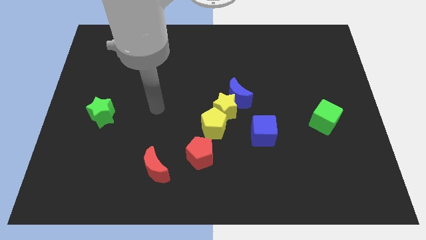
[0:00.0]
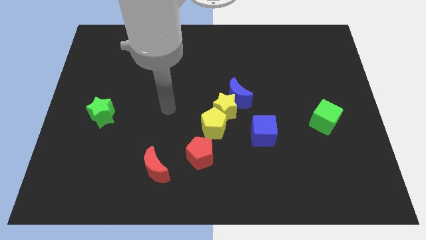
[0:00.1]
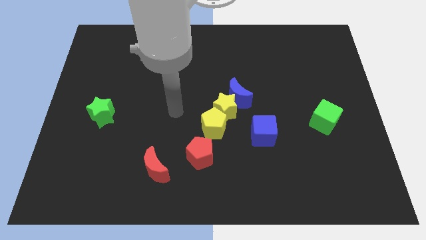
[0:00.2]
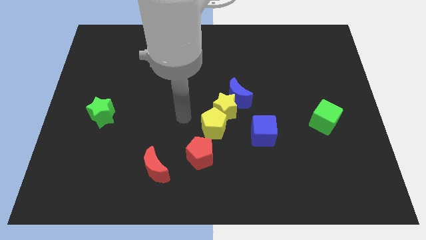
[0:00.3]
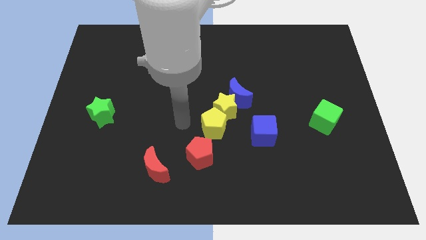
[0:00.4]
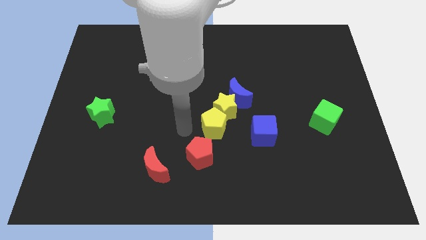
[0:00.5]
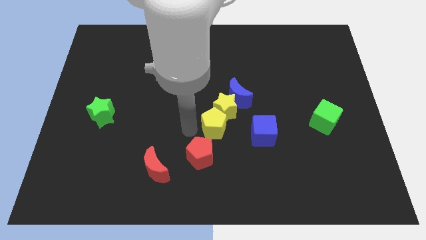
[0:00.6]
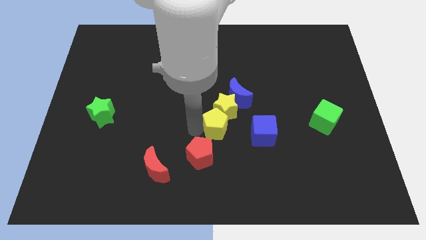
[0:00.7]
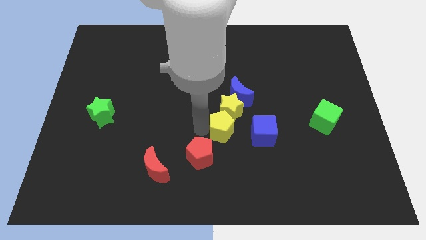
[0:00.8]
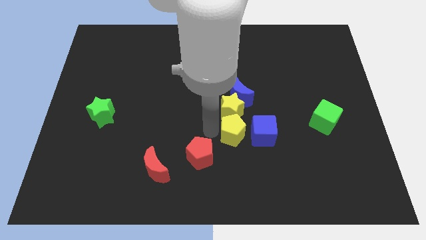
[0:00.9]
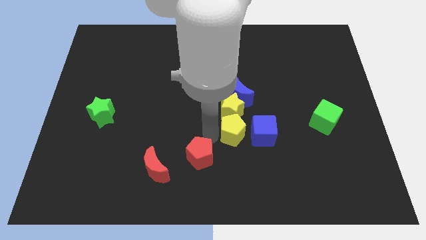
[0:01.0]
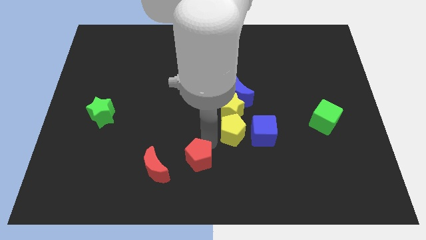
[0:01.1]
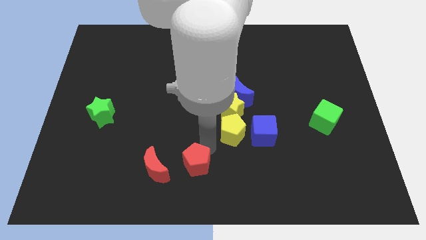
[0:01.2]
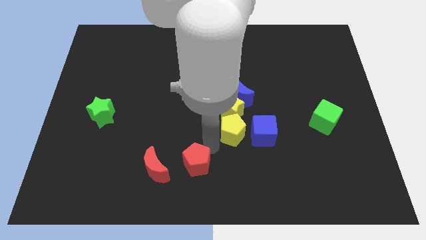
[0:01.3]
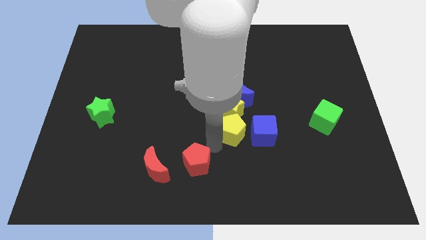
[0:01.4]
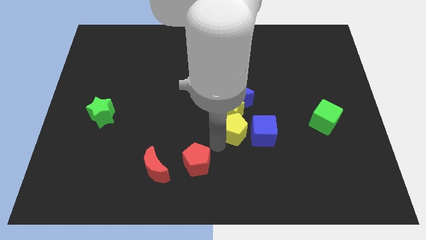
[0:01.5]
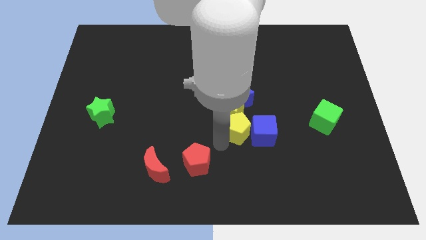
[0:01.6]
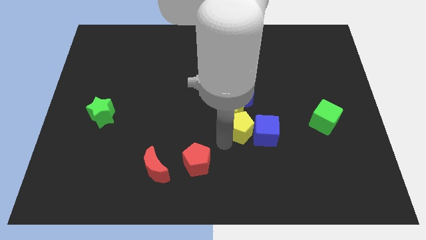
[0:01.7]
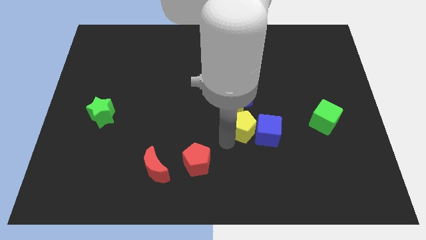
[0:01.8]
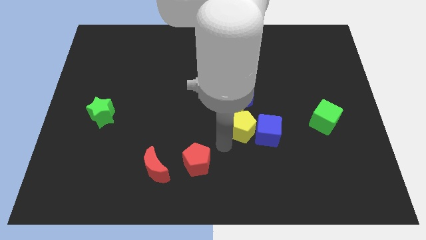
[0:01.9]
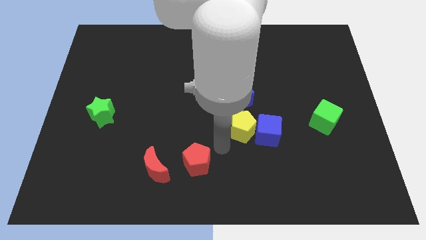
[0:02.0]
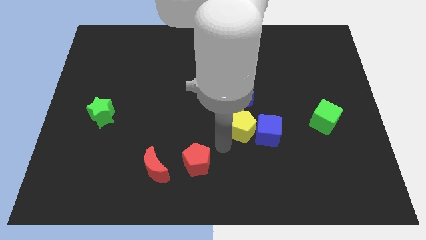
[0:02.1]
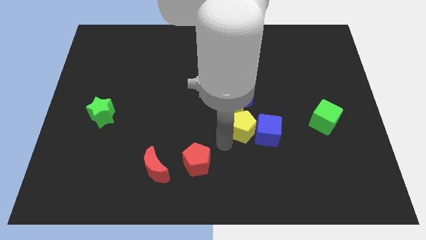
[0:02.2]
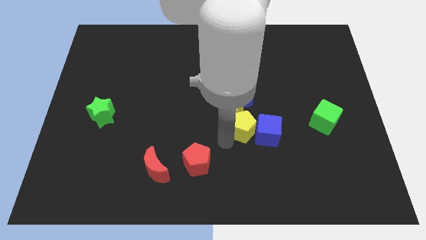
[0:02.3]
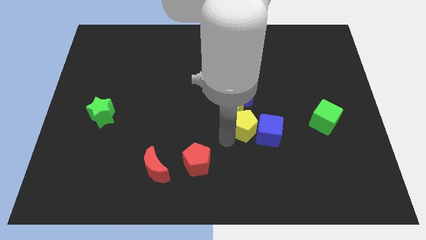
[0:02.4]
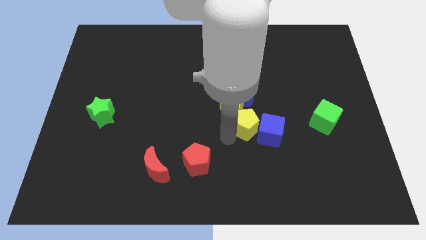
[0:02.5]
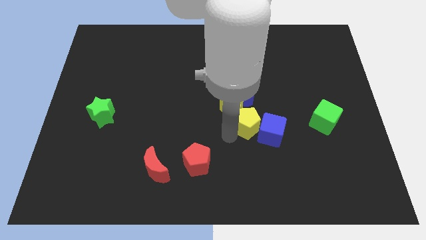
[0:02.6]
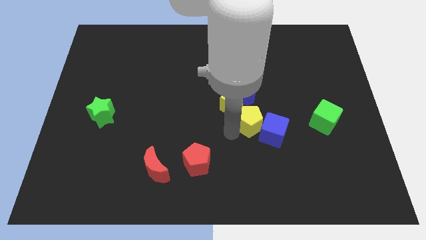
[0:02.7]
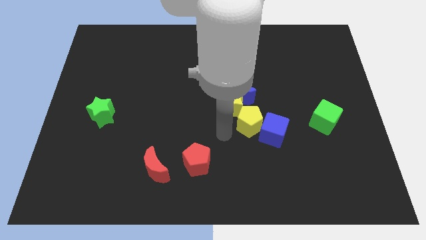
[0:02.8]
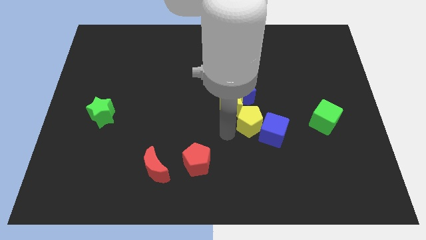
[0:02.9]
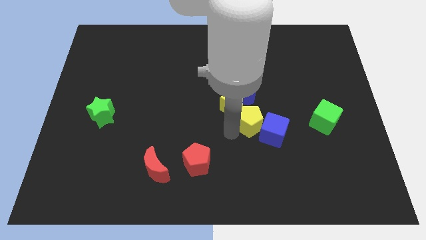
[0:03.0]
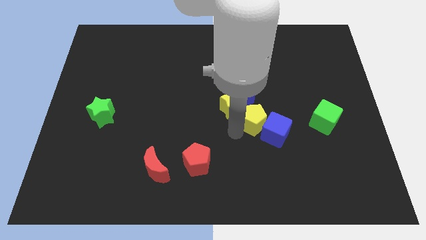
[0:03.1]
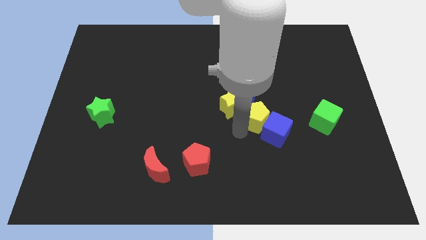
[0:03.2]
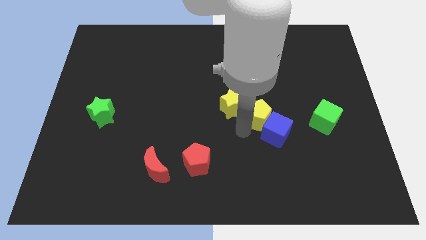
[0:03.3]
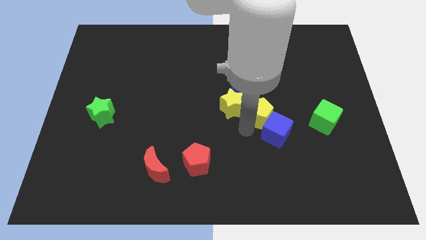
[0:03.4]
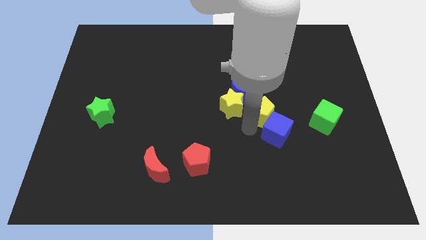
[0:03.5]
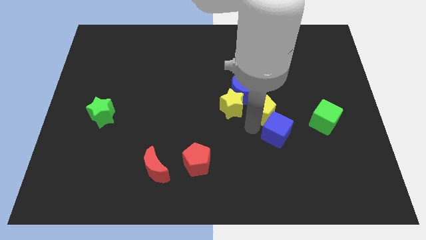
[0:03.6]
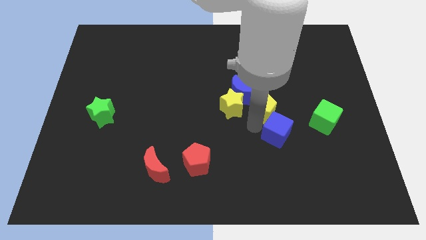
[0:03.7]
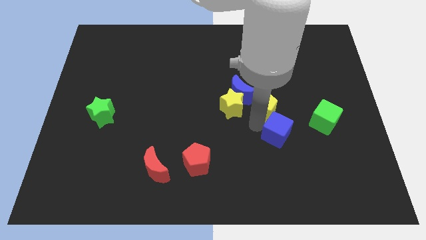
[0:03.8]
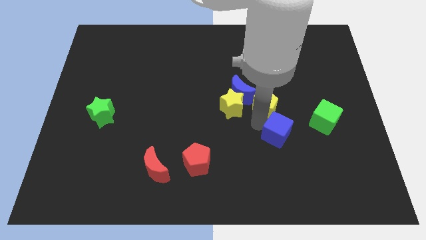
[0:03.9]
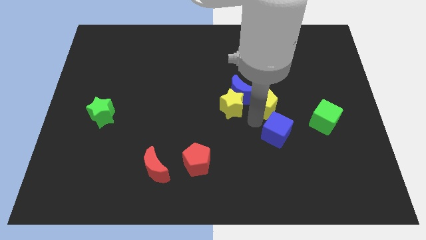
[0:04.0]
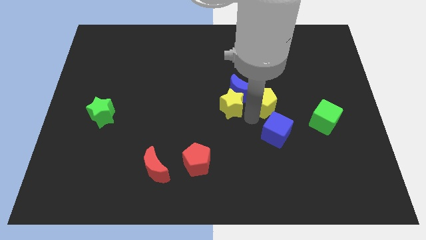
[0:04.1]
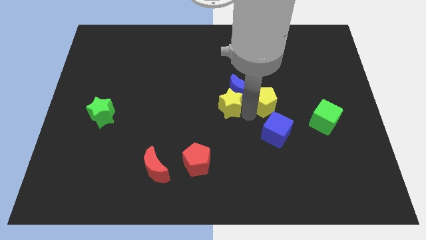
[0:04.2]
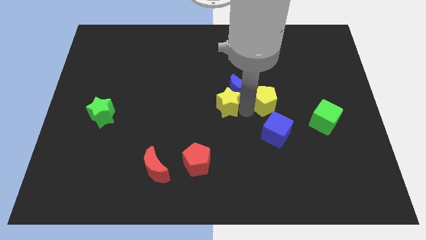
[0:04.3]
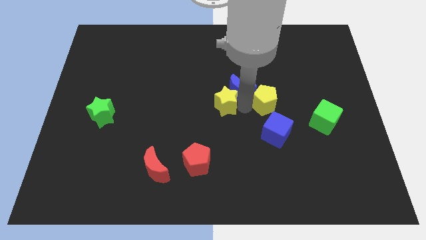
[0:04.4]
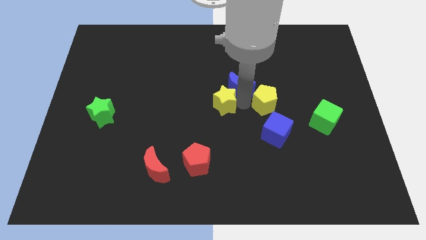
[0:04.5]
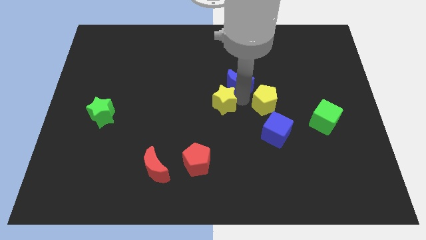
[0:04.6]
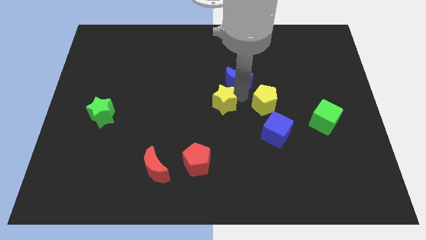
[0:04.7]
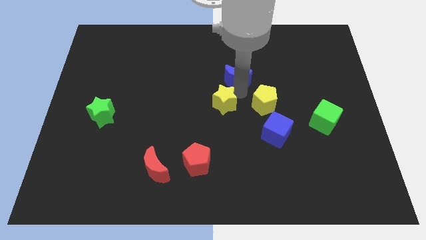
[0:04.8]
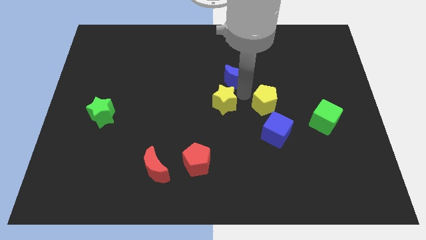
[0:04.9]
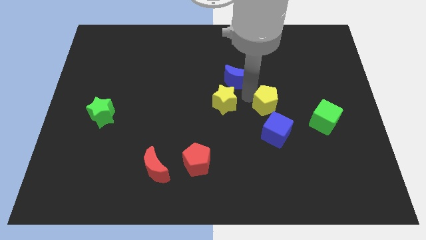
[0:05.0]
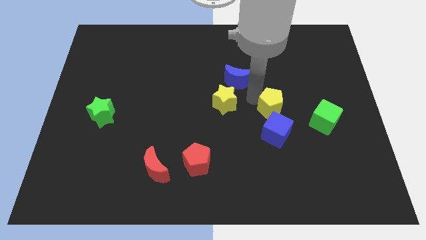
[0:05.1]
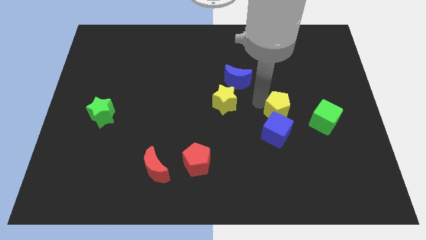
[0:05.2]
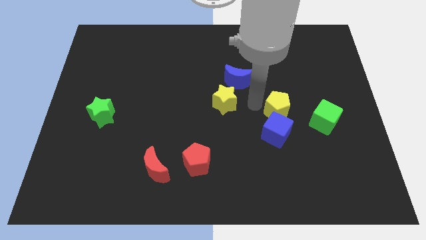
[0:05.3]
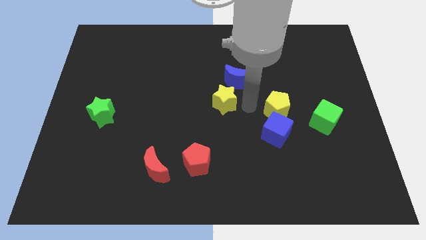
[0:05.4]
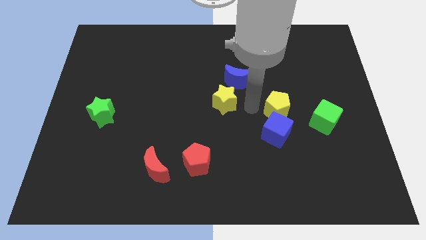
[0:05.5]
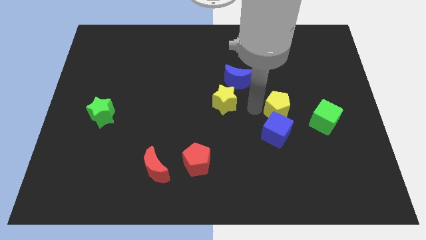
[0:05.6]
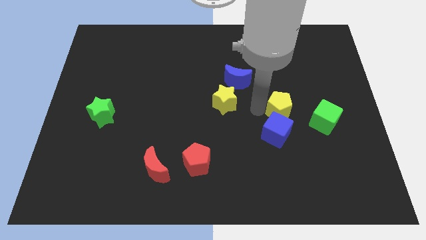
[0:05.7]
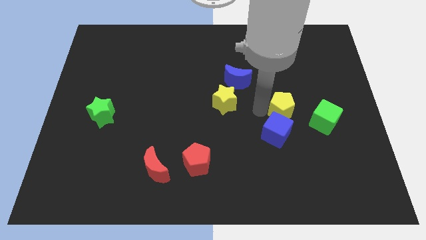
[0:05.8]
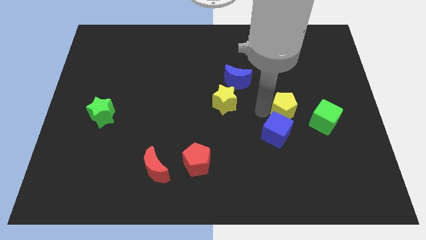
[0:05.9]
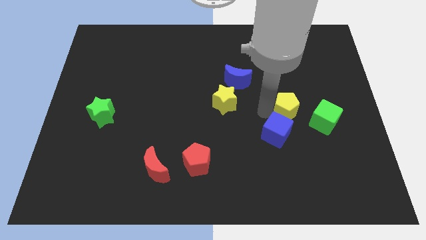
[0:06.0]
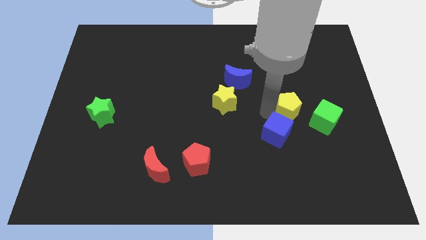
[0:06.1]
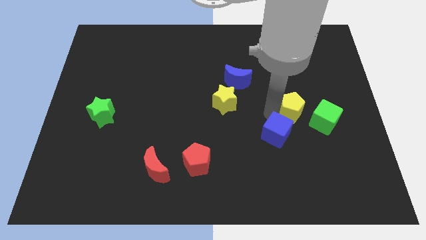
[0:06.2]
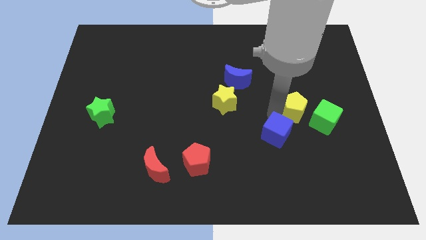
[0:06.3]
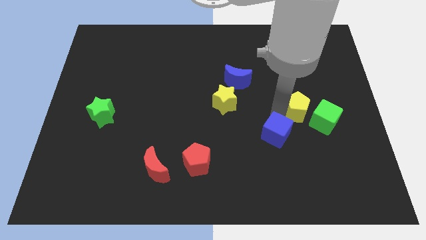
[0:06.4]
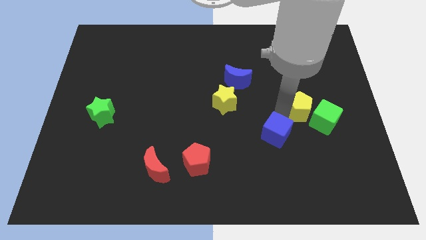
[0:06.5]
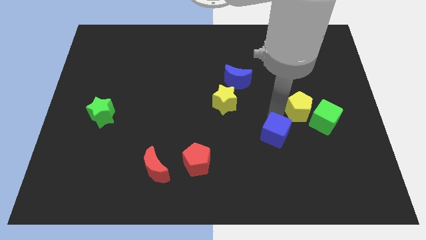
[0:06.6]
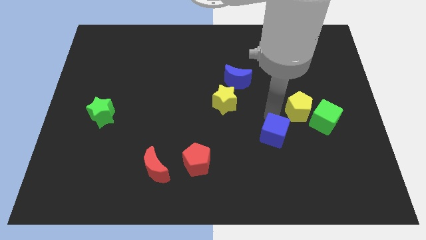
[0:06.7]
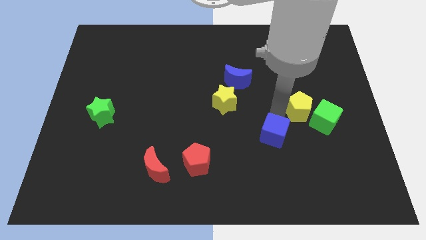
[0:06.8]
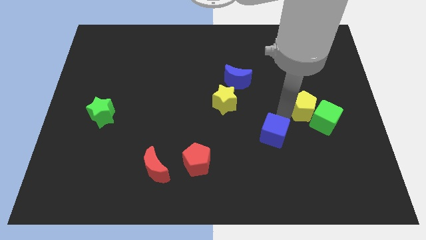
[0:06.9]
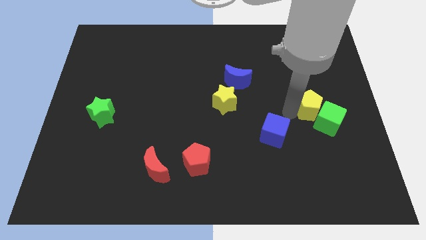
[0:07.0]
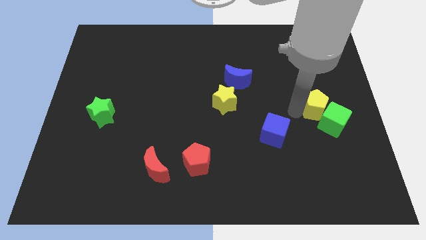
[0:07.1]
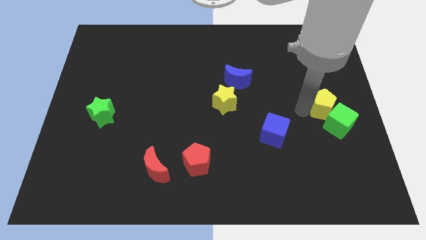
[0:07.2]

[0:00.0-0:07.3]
move the yellow pentagon to the right side

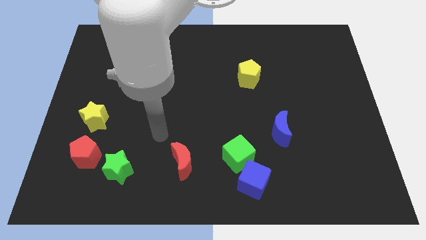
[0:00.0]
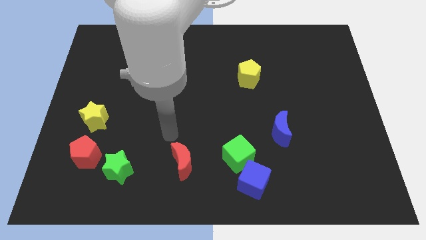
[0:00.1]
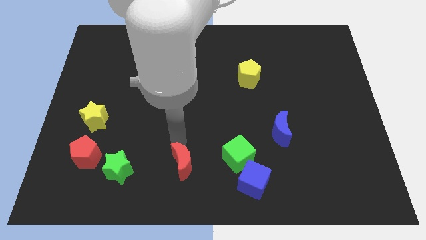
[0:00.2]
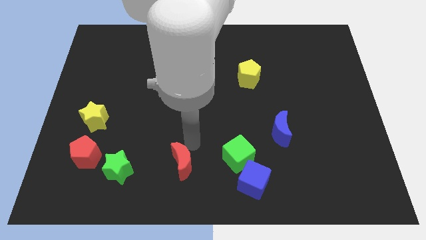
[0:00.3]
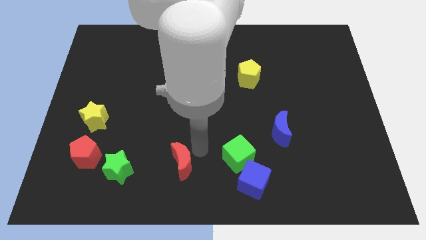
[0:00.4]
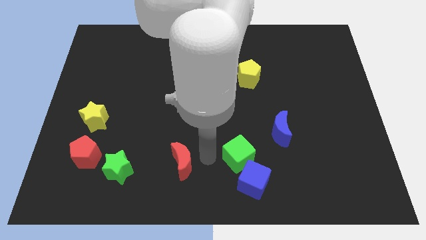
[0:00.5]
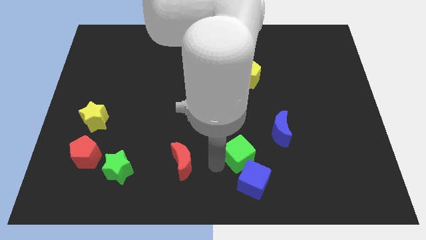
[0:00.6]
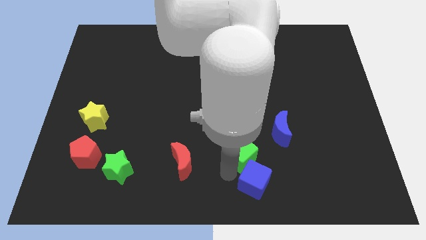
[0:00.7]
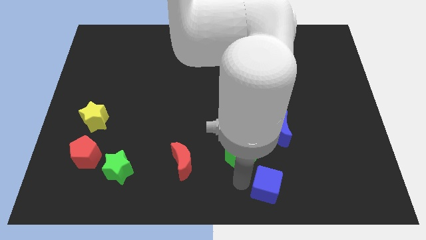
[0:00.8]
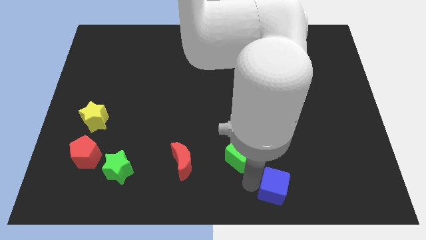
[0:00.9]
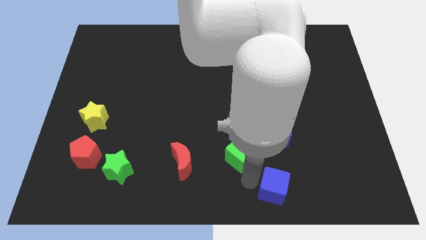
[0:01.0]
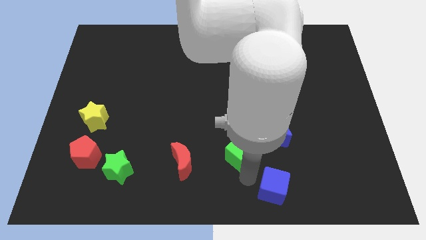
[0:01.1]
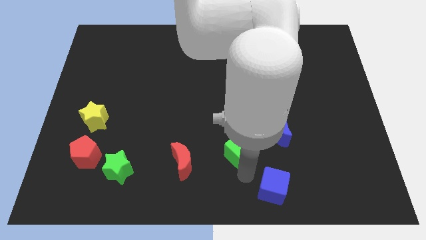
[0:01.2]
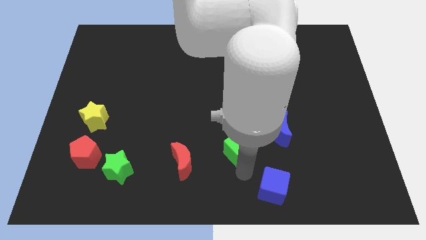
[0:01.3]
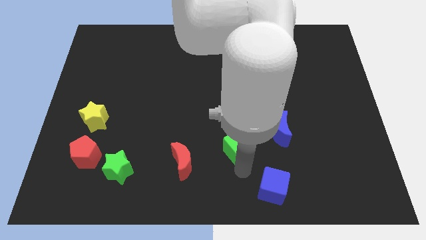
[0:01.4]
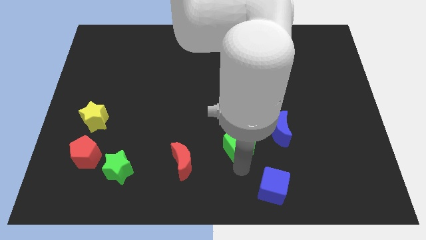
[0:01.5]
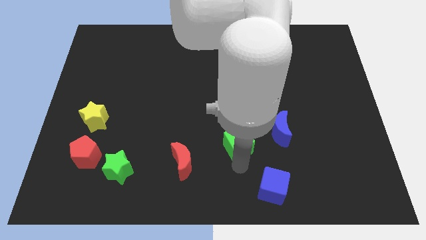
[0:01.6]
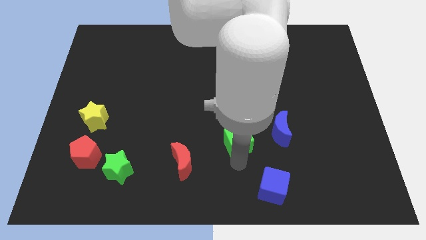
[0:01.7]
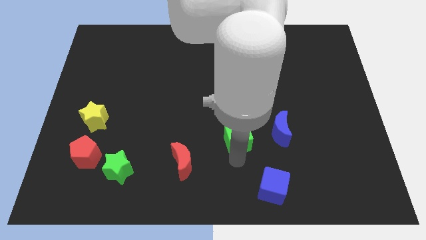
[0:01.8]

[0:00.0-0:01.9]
put the green cube to the middle
